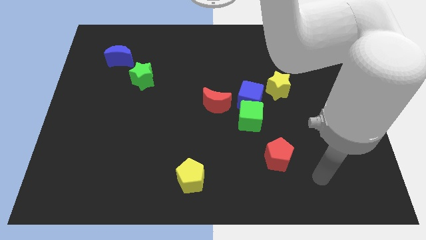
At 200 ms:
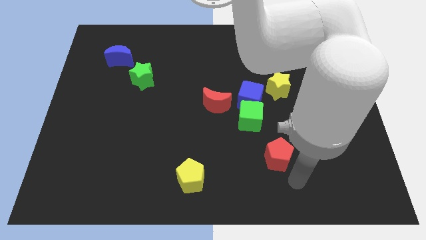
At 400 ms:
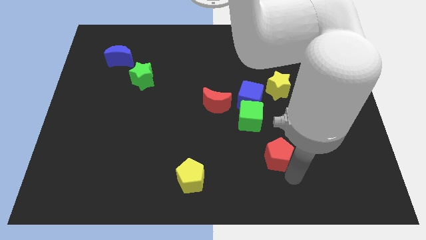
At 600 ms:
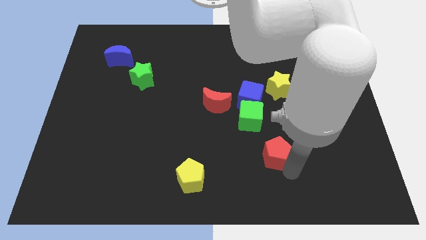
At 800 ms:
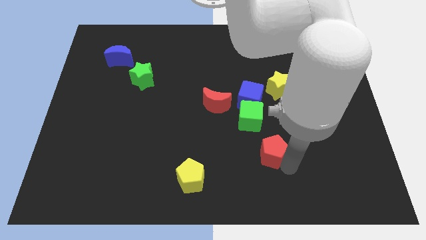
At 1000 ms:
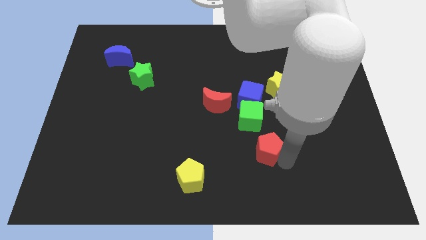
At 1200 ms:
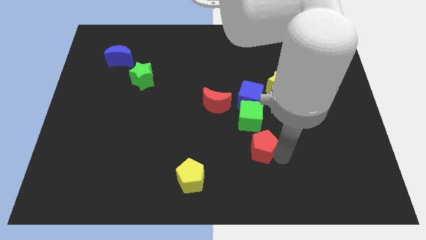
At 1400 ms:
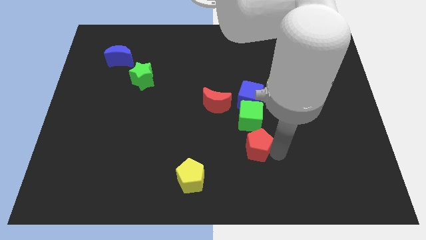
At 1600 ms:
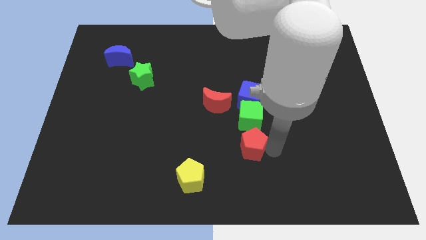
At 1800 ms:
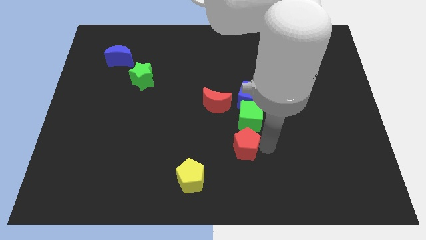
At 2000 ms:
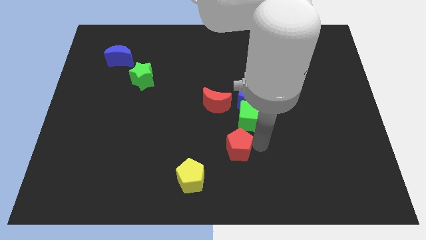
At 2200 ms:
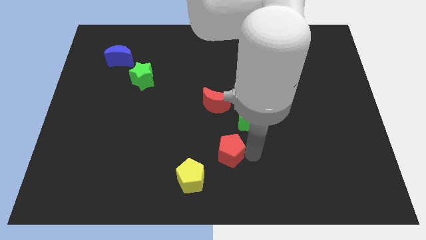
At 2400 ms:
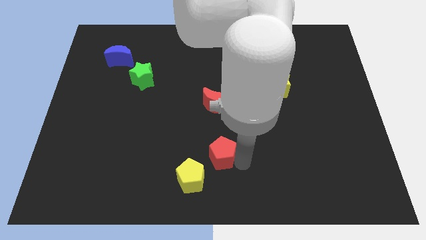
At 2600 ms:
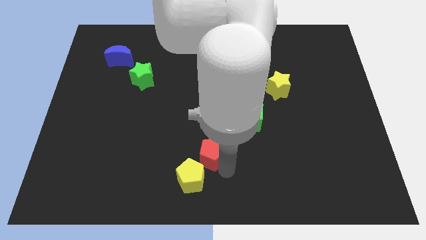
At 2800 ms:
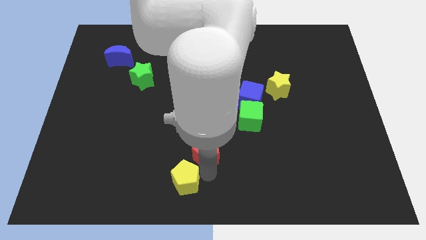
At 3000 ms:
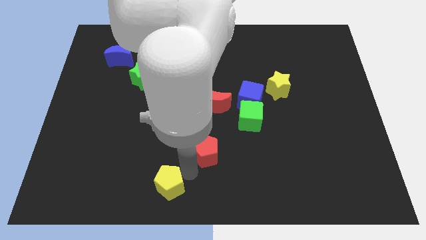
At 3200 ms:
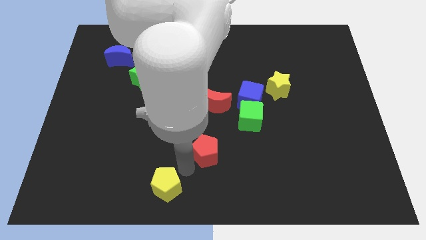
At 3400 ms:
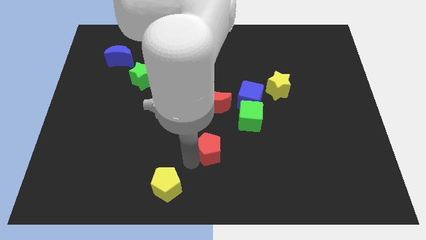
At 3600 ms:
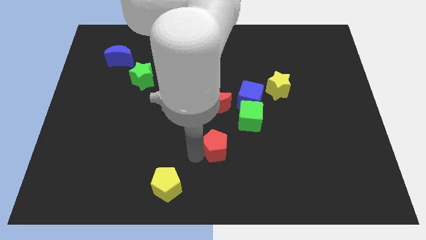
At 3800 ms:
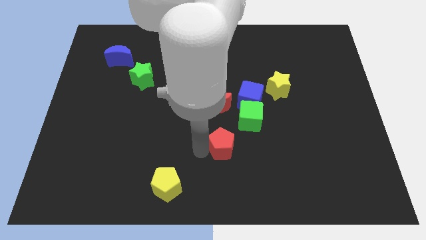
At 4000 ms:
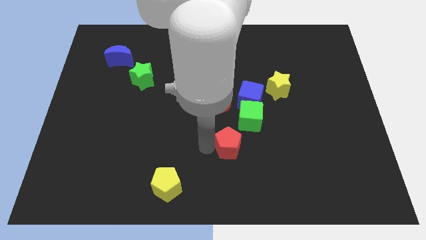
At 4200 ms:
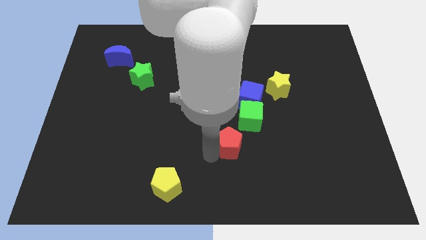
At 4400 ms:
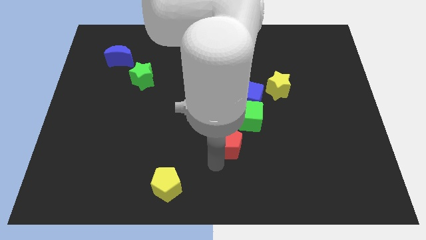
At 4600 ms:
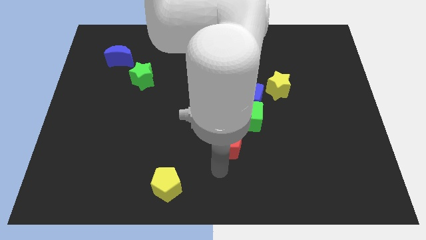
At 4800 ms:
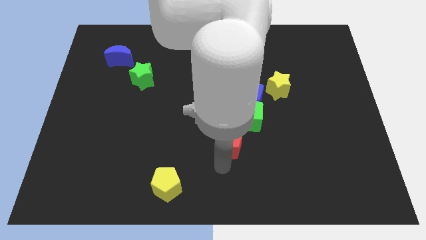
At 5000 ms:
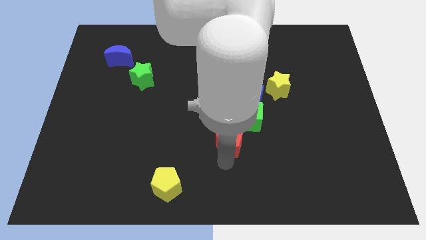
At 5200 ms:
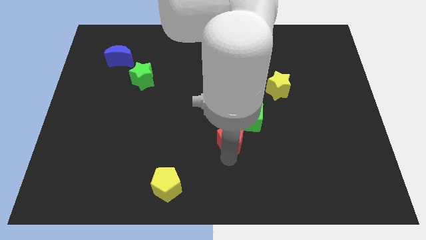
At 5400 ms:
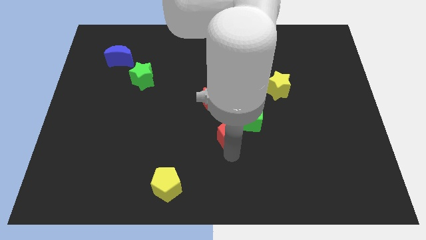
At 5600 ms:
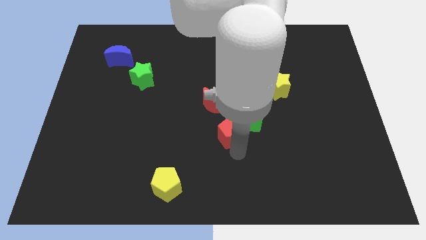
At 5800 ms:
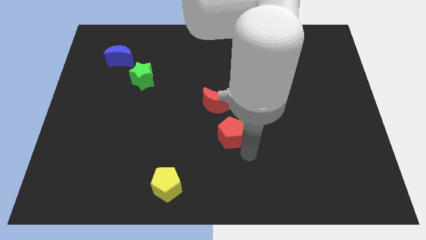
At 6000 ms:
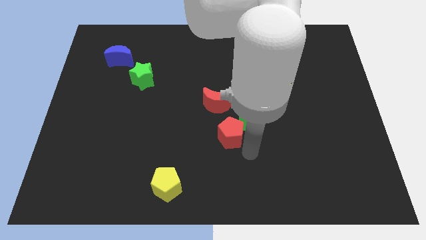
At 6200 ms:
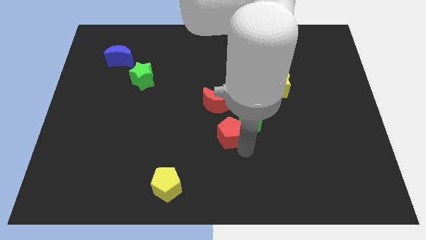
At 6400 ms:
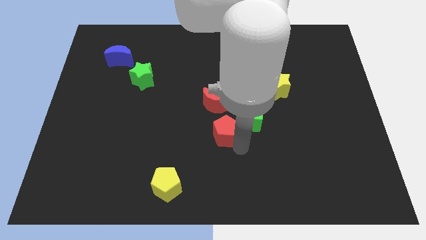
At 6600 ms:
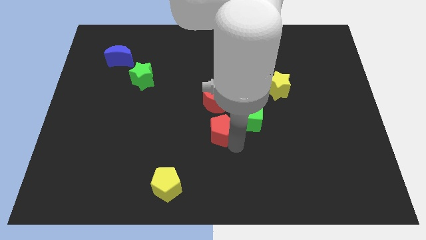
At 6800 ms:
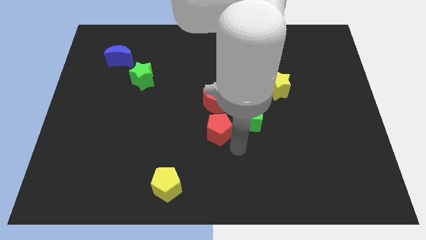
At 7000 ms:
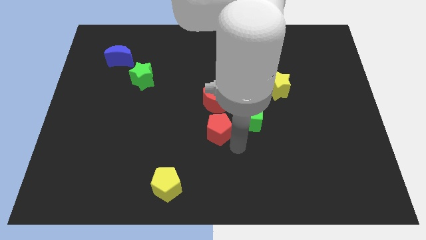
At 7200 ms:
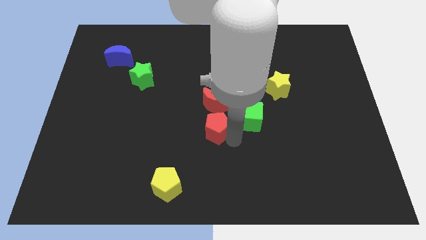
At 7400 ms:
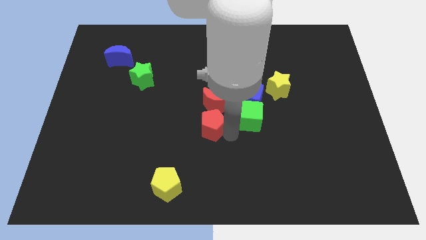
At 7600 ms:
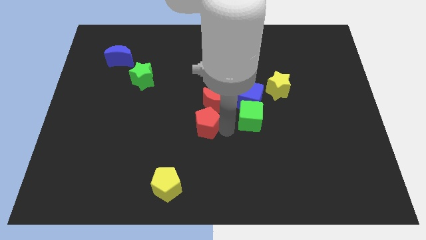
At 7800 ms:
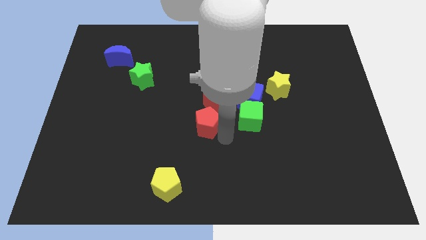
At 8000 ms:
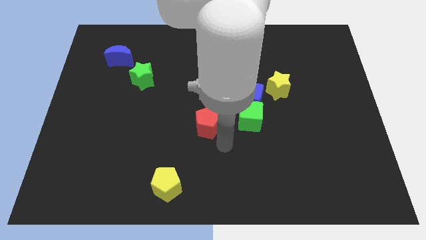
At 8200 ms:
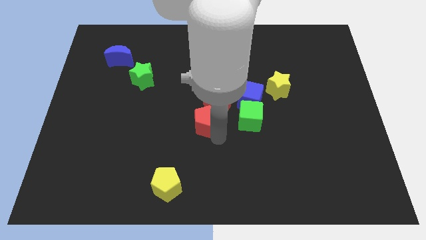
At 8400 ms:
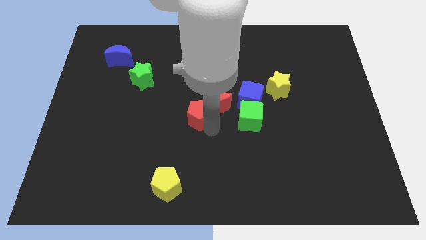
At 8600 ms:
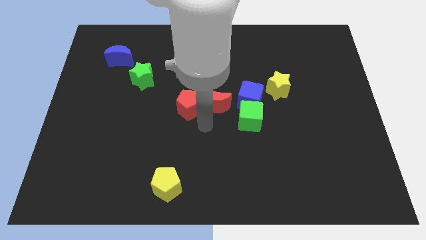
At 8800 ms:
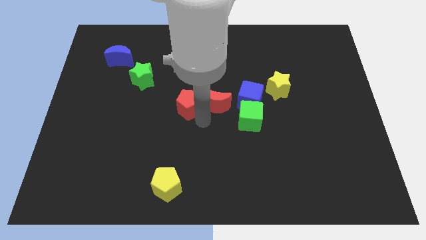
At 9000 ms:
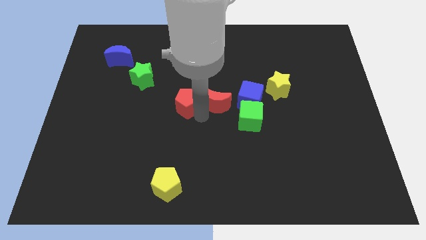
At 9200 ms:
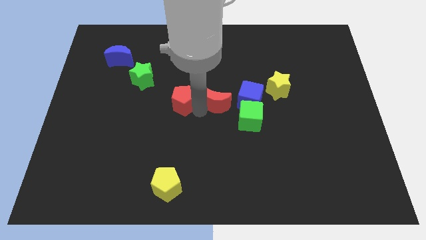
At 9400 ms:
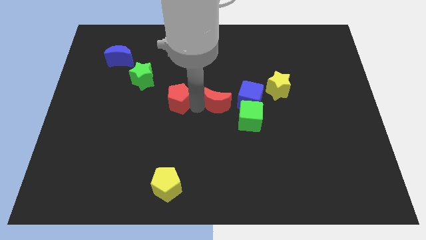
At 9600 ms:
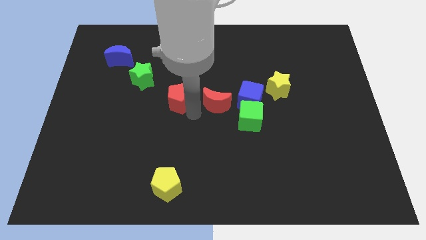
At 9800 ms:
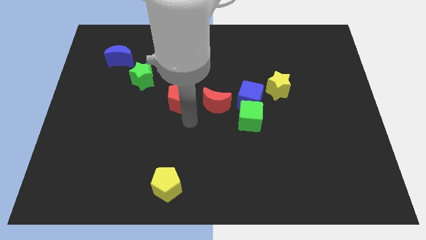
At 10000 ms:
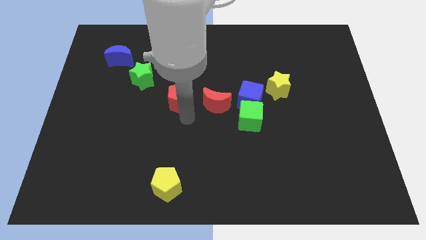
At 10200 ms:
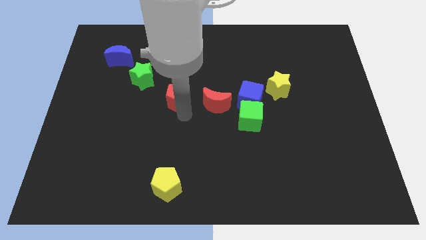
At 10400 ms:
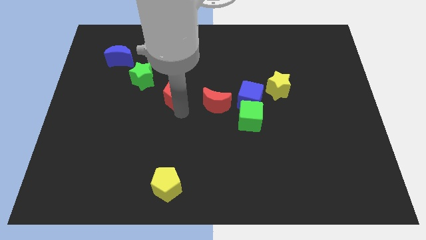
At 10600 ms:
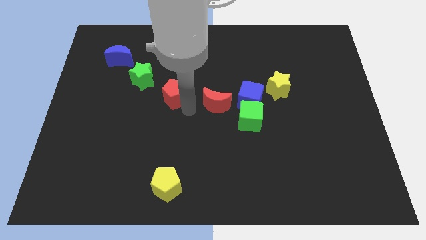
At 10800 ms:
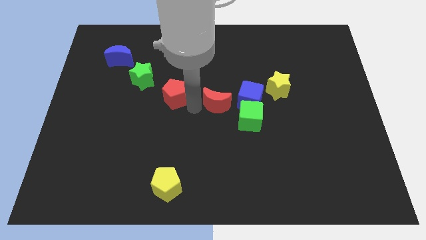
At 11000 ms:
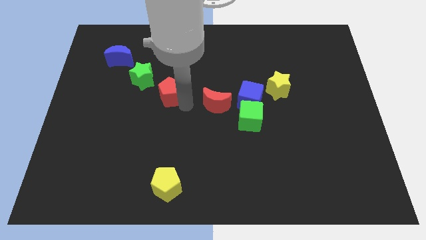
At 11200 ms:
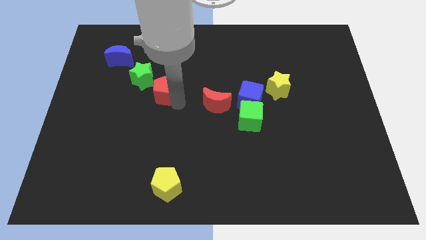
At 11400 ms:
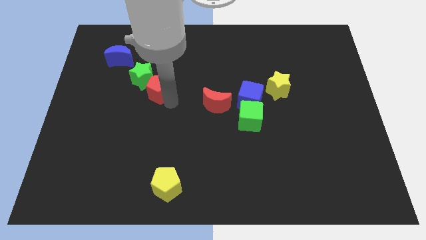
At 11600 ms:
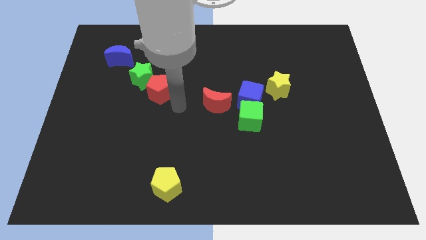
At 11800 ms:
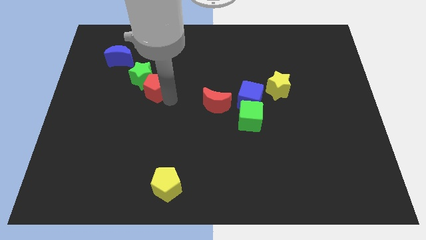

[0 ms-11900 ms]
put the red pentagon towards the green star

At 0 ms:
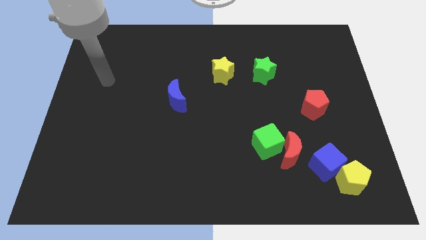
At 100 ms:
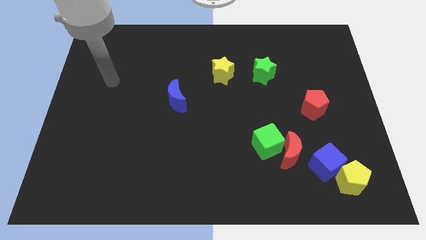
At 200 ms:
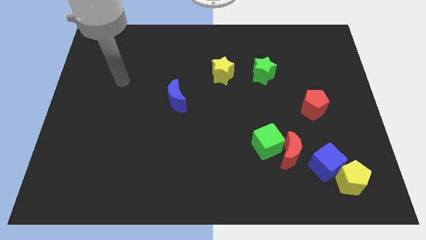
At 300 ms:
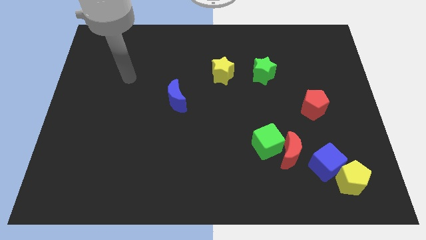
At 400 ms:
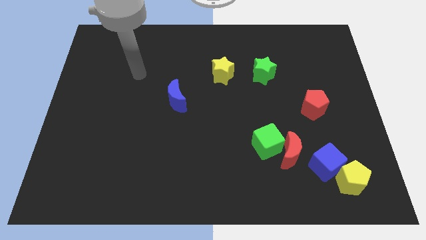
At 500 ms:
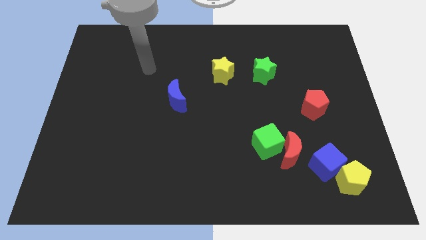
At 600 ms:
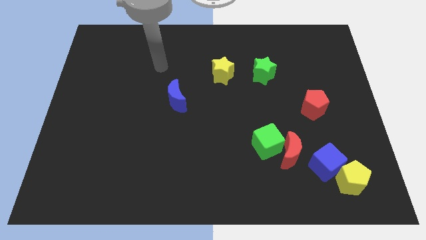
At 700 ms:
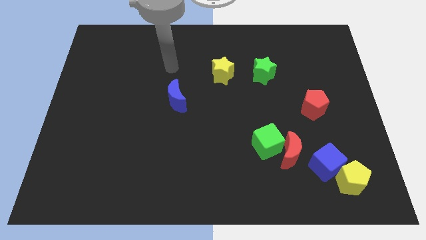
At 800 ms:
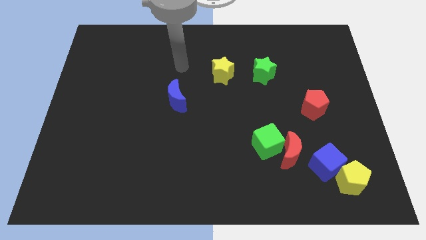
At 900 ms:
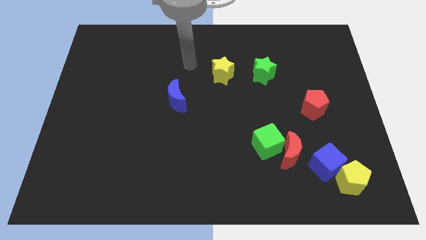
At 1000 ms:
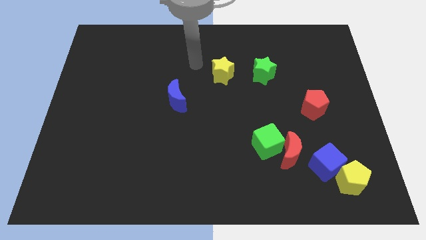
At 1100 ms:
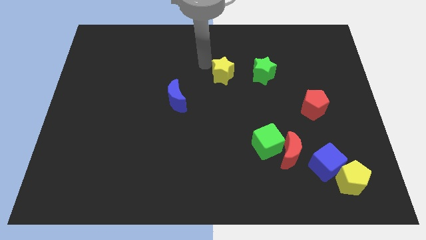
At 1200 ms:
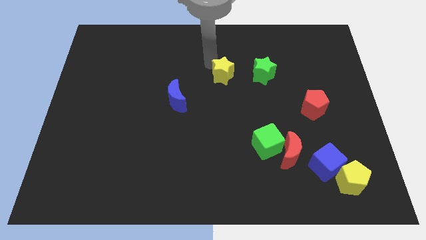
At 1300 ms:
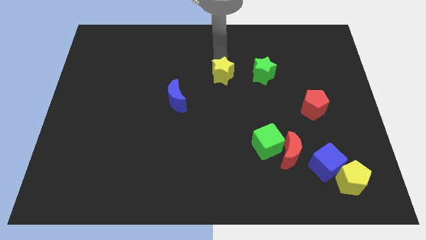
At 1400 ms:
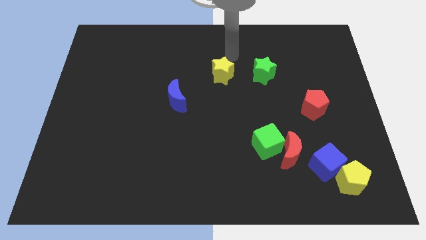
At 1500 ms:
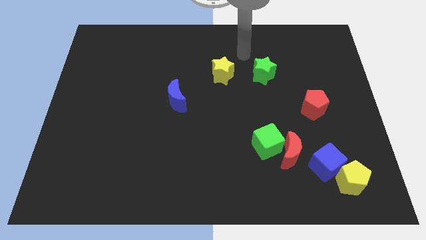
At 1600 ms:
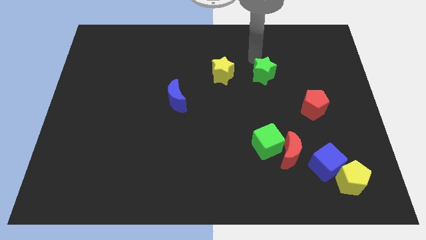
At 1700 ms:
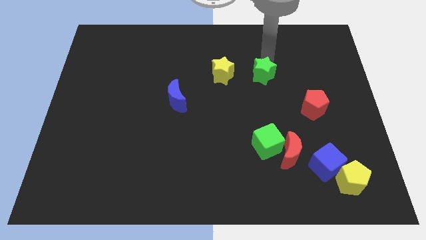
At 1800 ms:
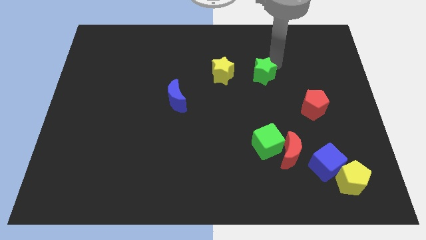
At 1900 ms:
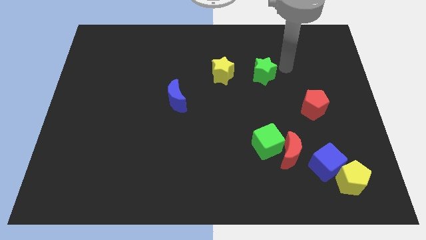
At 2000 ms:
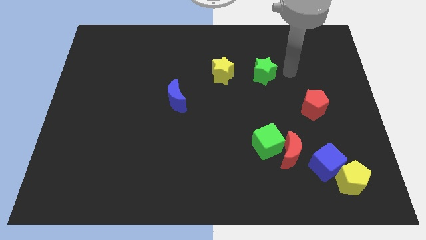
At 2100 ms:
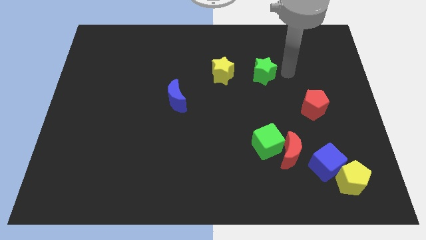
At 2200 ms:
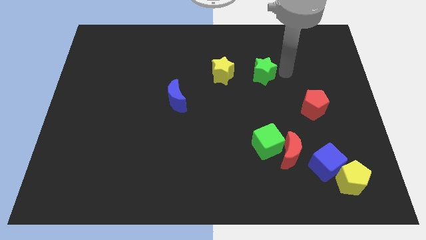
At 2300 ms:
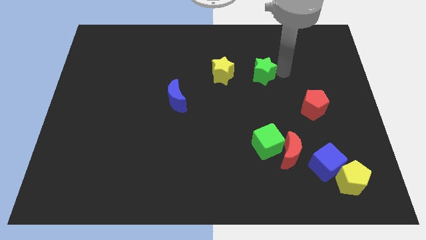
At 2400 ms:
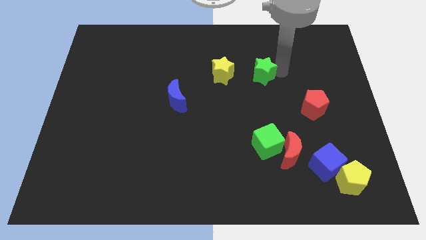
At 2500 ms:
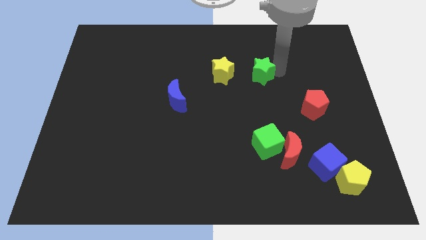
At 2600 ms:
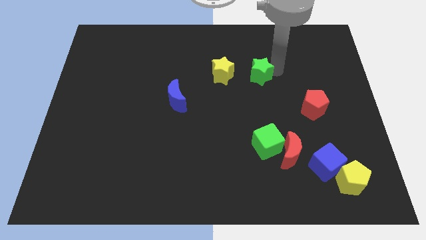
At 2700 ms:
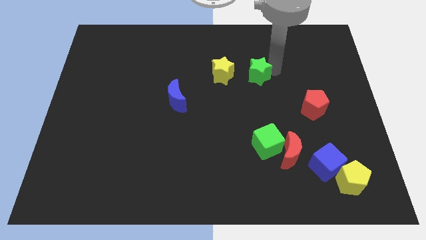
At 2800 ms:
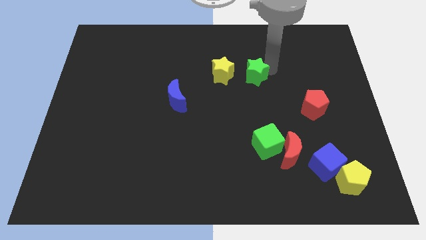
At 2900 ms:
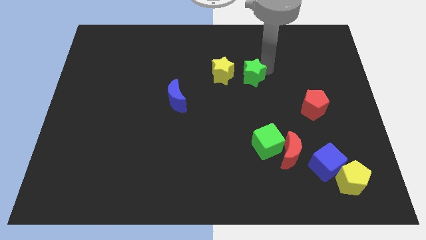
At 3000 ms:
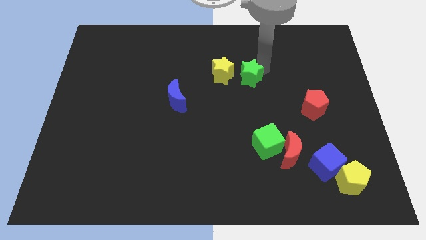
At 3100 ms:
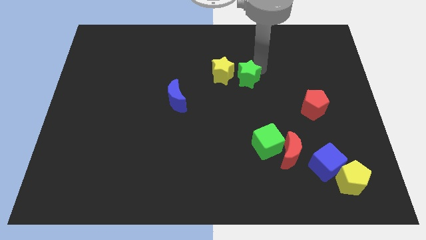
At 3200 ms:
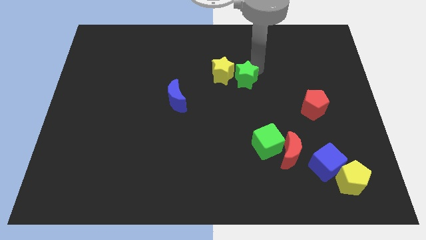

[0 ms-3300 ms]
slide the green star towards the yellow star
